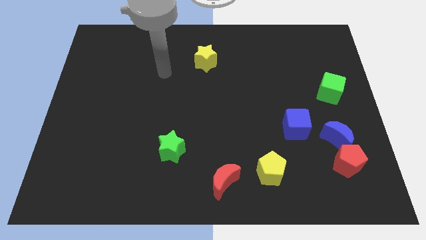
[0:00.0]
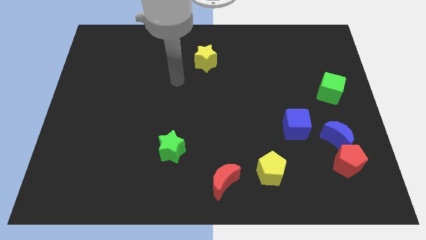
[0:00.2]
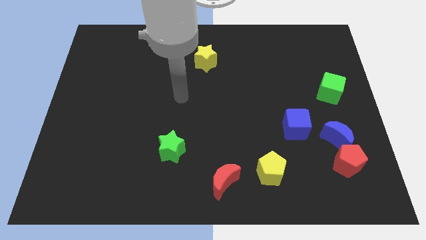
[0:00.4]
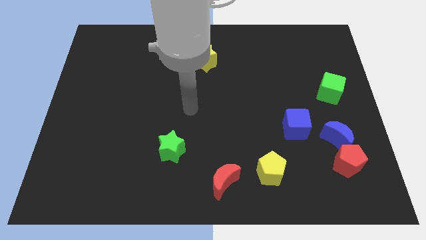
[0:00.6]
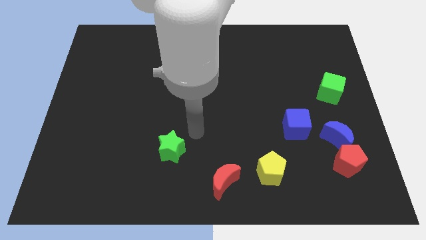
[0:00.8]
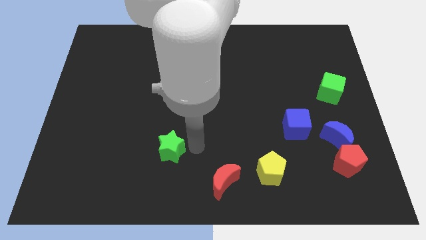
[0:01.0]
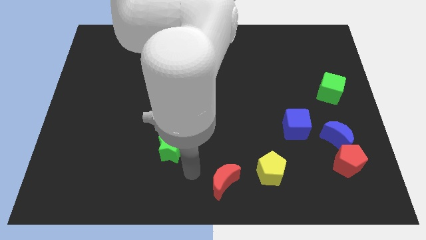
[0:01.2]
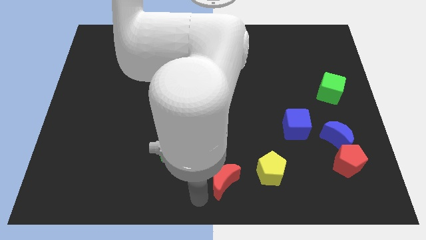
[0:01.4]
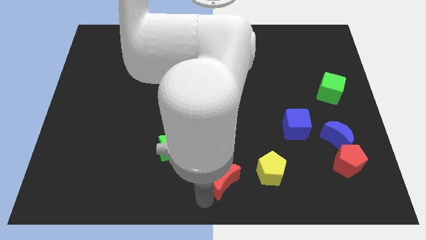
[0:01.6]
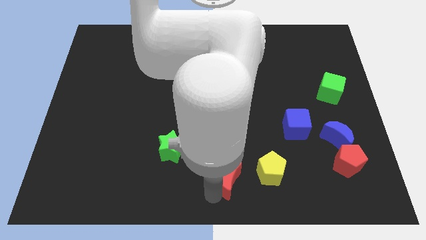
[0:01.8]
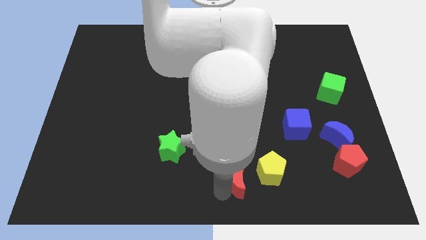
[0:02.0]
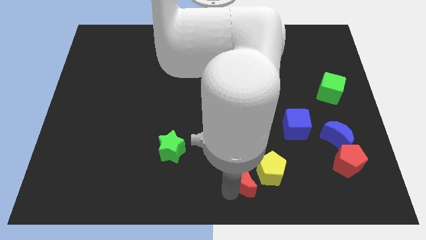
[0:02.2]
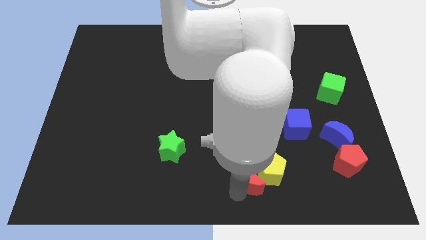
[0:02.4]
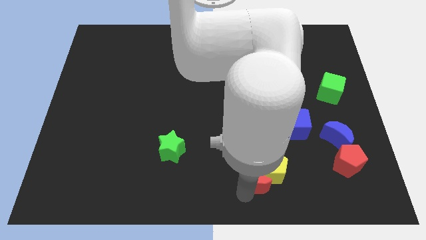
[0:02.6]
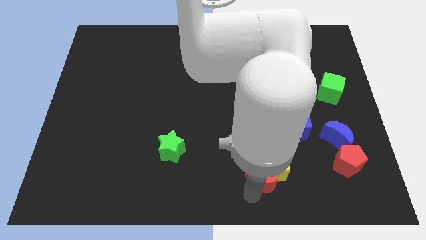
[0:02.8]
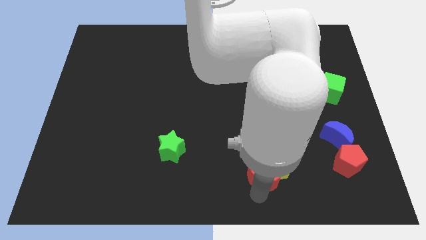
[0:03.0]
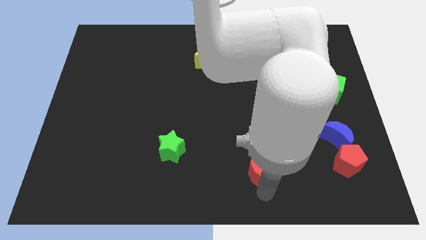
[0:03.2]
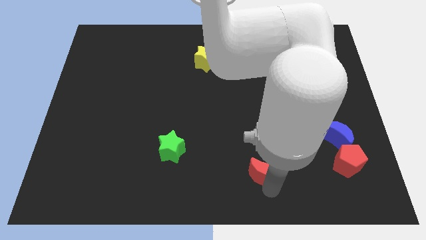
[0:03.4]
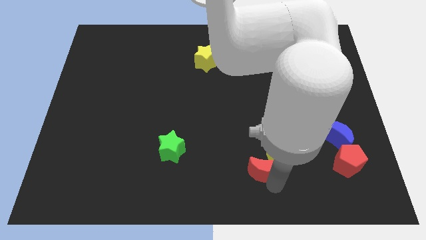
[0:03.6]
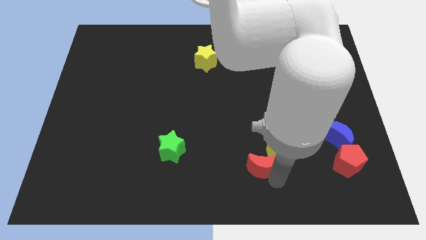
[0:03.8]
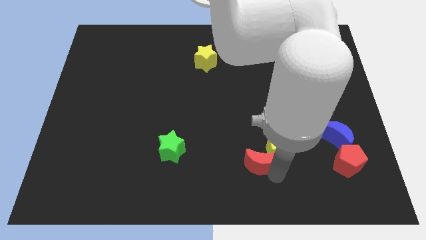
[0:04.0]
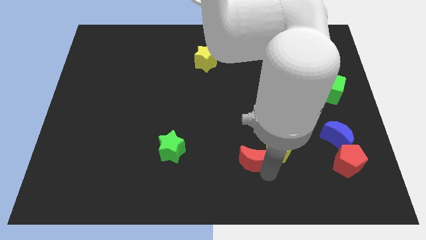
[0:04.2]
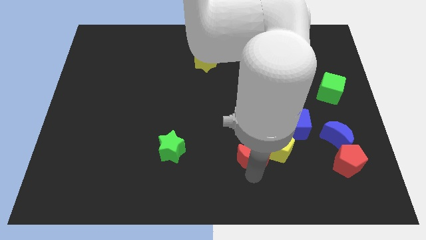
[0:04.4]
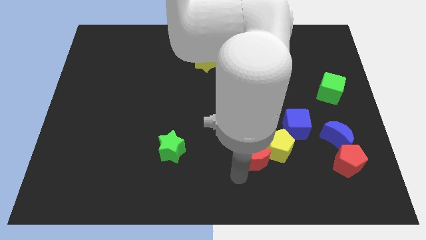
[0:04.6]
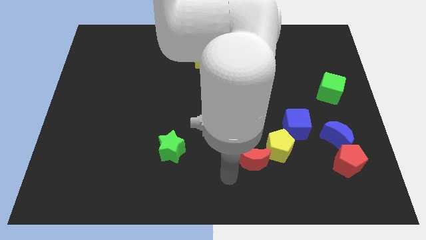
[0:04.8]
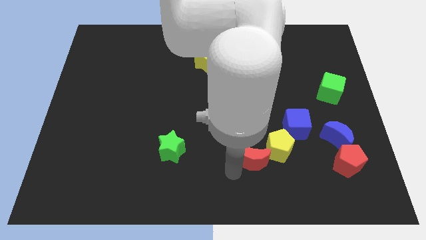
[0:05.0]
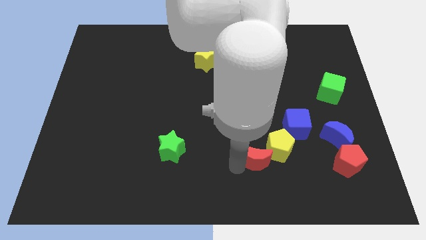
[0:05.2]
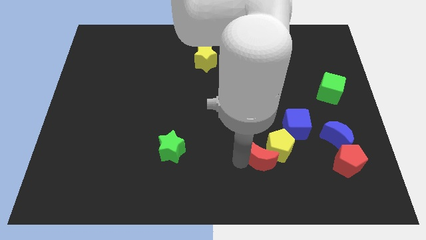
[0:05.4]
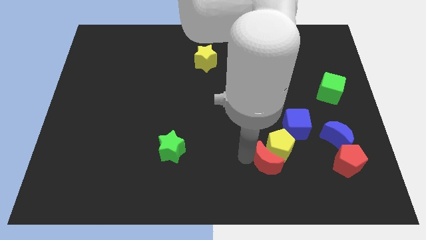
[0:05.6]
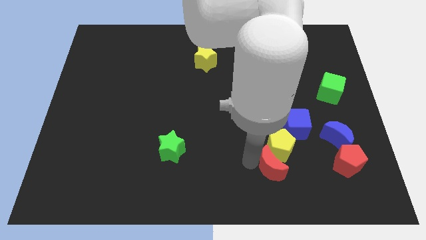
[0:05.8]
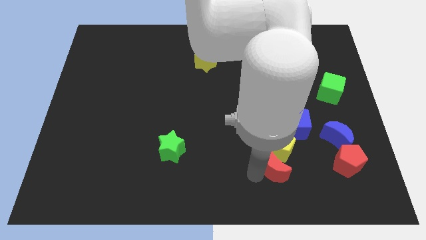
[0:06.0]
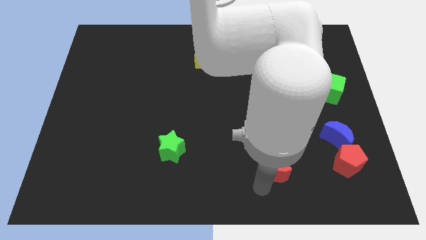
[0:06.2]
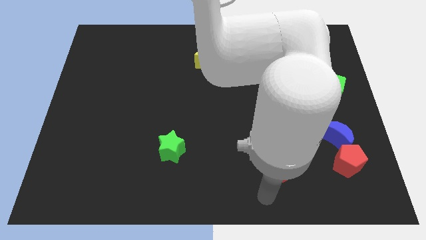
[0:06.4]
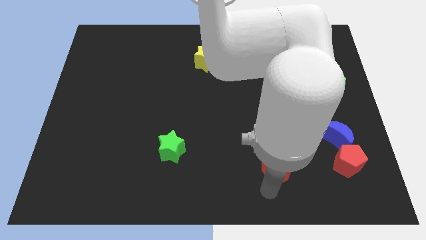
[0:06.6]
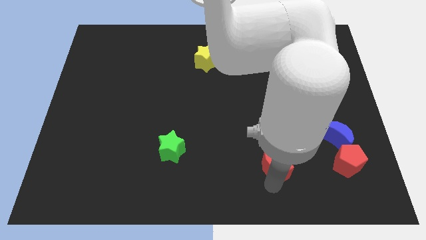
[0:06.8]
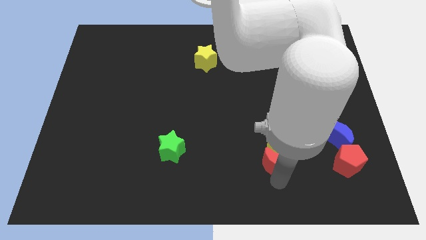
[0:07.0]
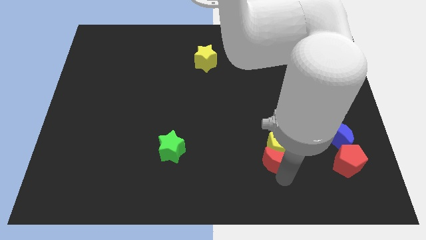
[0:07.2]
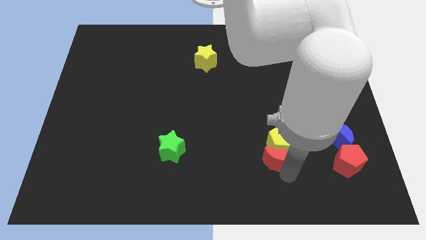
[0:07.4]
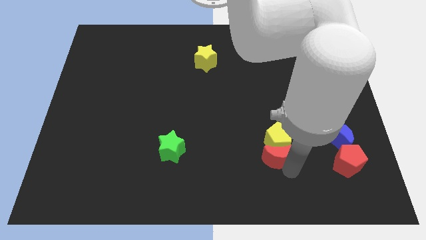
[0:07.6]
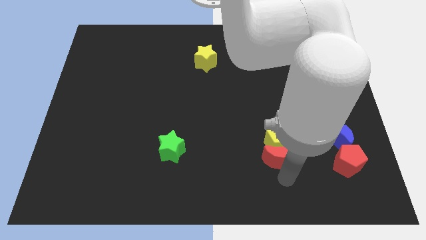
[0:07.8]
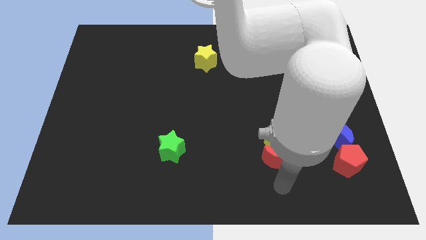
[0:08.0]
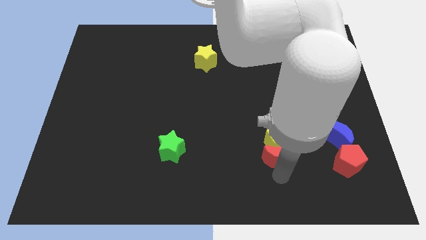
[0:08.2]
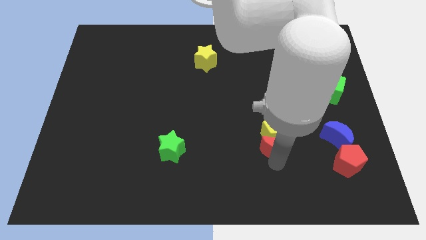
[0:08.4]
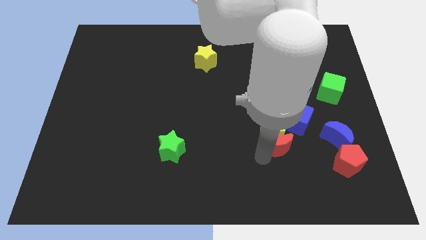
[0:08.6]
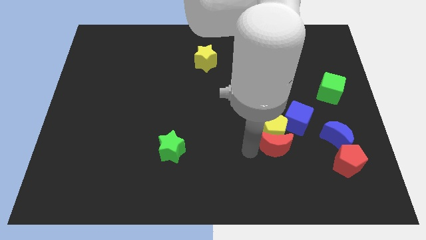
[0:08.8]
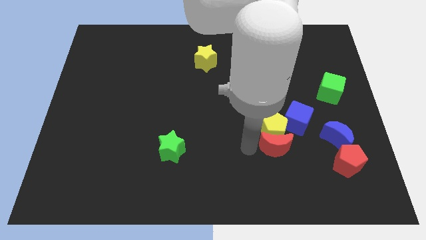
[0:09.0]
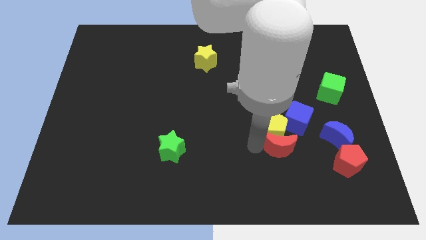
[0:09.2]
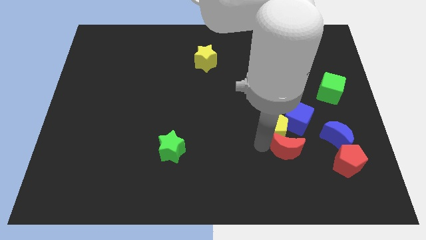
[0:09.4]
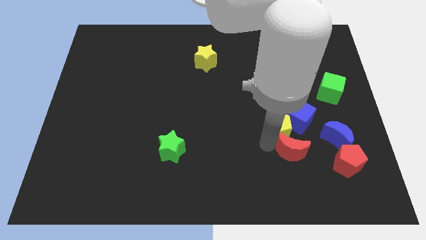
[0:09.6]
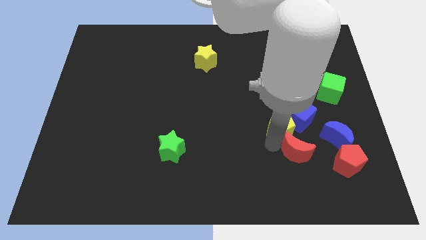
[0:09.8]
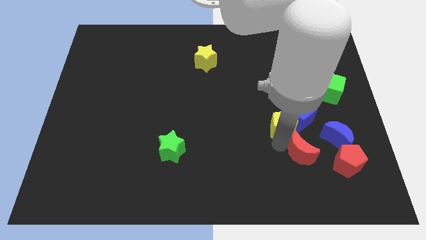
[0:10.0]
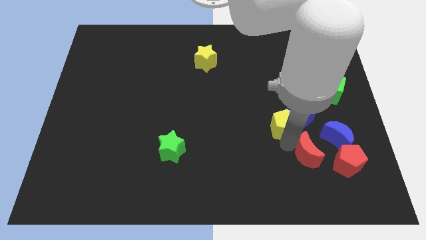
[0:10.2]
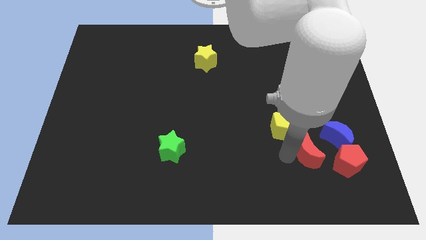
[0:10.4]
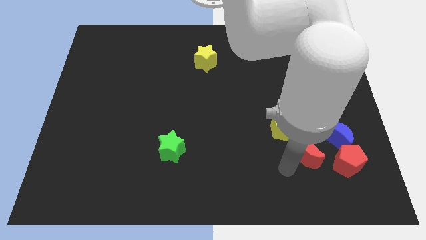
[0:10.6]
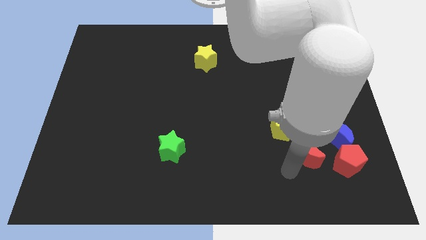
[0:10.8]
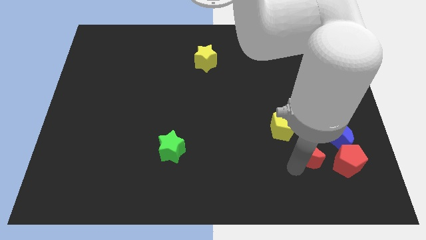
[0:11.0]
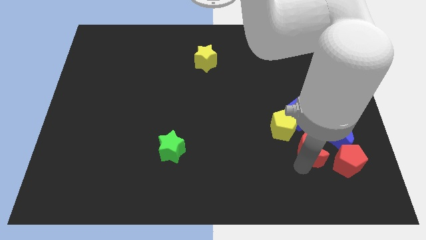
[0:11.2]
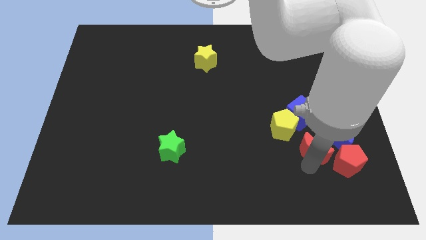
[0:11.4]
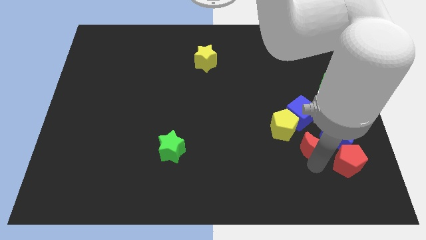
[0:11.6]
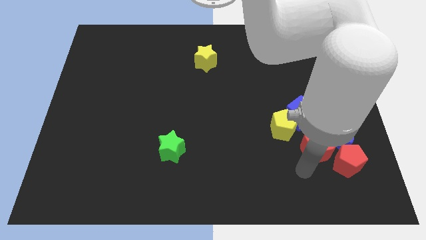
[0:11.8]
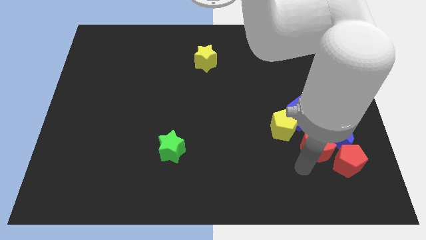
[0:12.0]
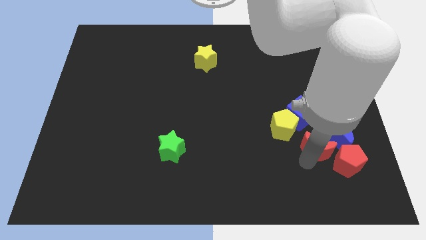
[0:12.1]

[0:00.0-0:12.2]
push the red moon to the bottom right of the blue cube
